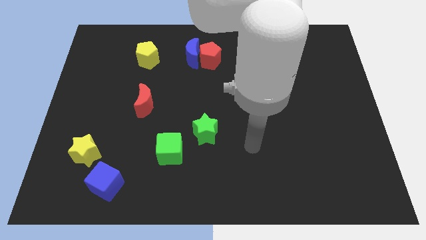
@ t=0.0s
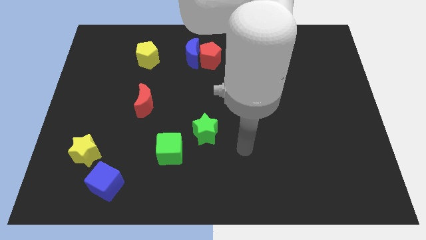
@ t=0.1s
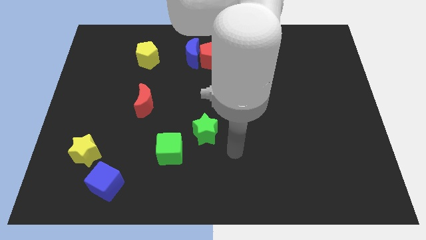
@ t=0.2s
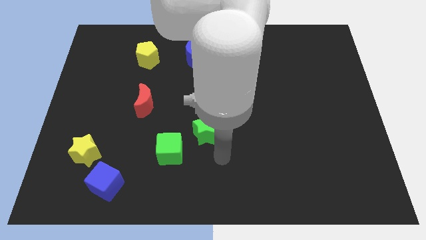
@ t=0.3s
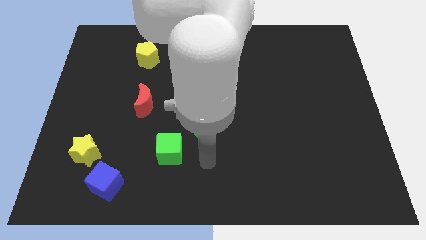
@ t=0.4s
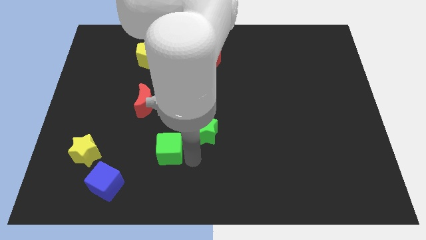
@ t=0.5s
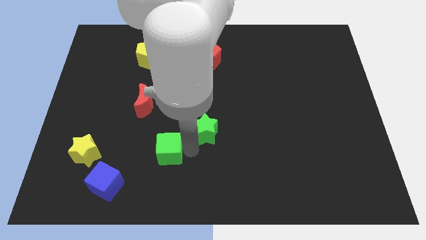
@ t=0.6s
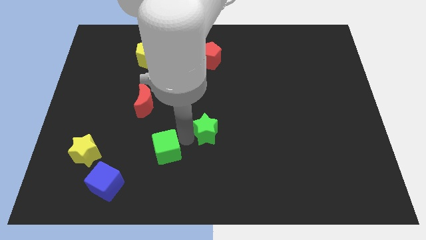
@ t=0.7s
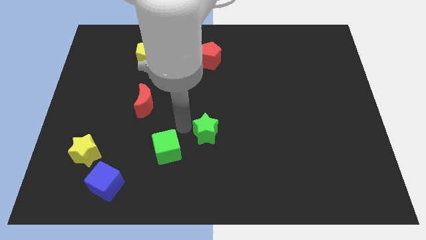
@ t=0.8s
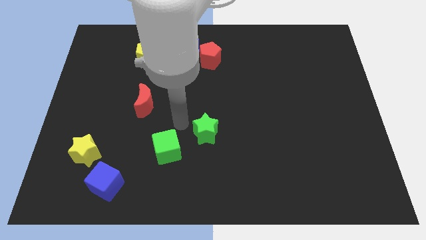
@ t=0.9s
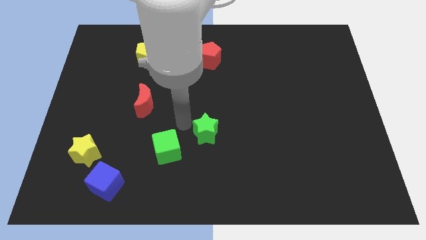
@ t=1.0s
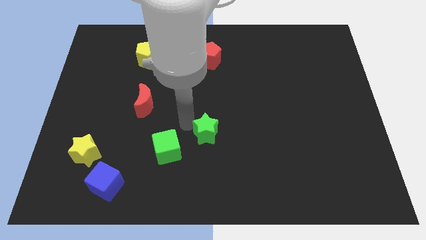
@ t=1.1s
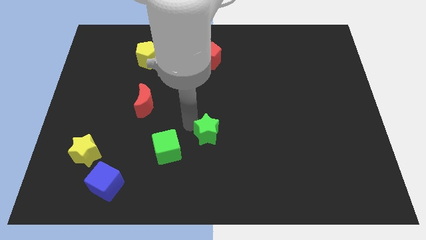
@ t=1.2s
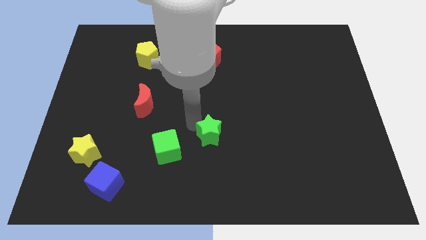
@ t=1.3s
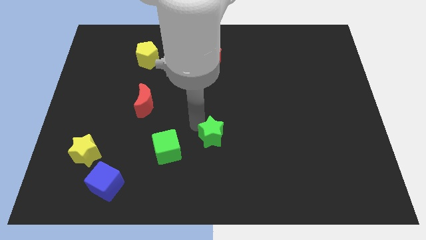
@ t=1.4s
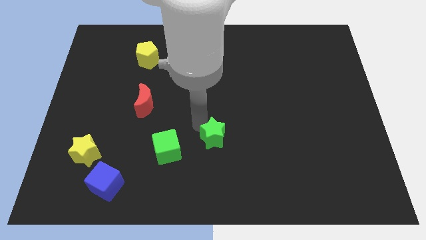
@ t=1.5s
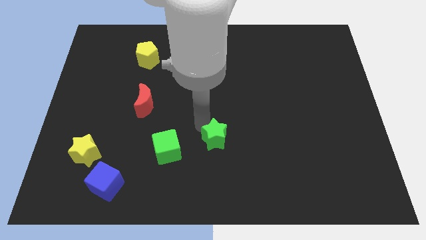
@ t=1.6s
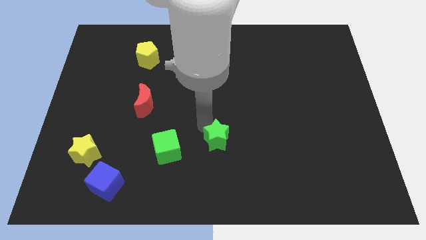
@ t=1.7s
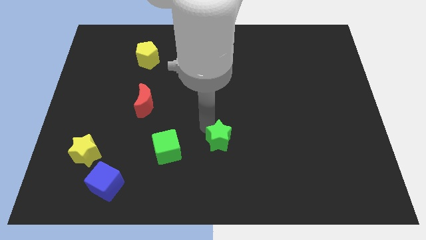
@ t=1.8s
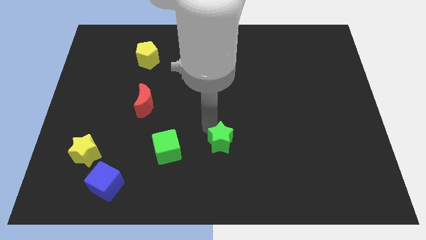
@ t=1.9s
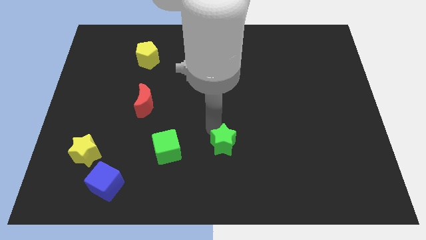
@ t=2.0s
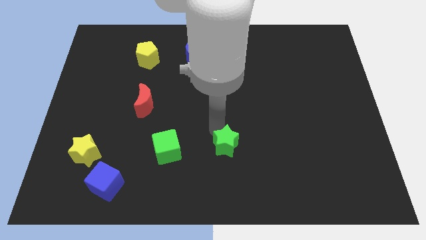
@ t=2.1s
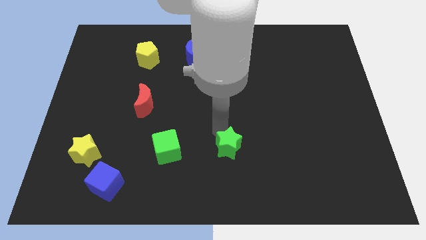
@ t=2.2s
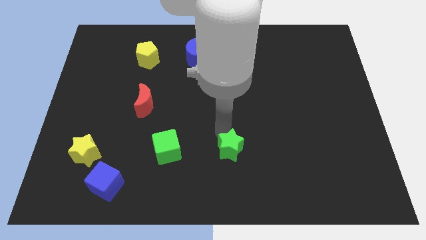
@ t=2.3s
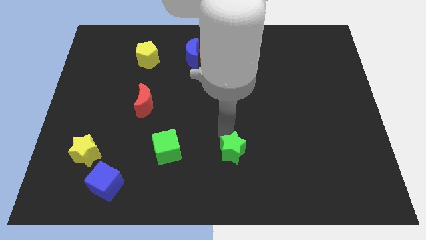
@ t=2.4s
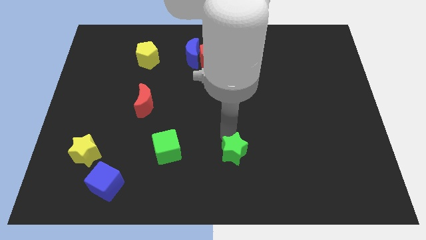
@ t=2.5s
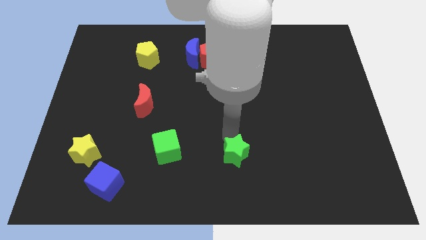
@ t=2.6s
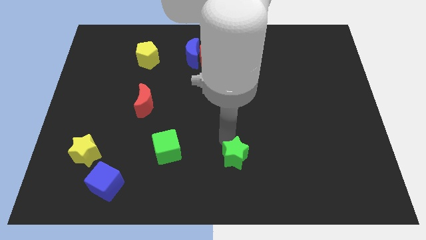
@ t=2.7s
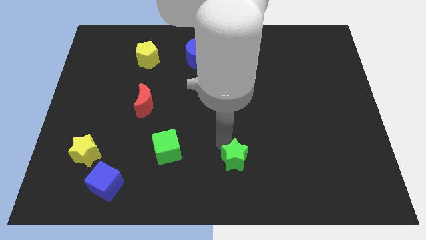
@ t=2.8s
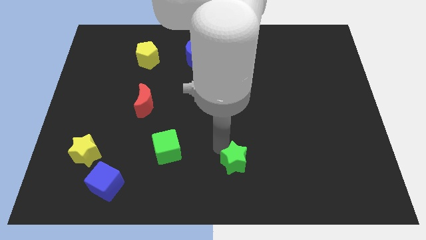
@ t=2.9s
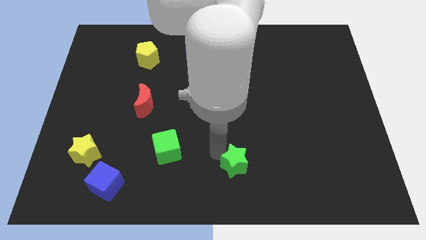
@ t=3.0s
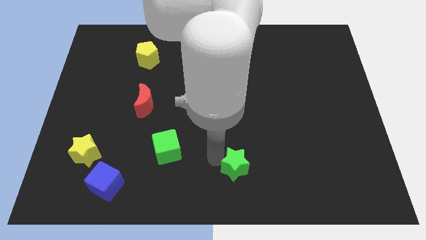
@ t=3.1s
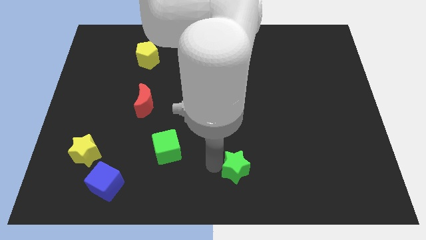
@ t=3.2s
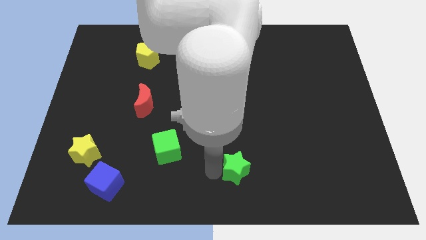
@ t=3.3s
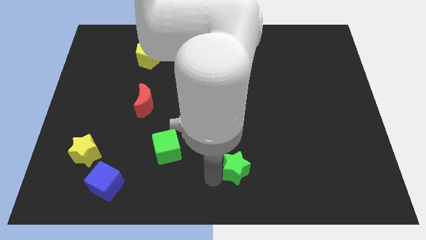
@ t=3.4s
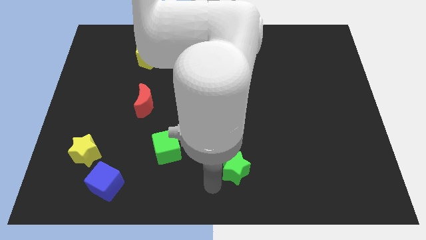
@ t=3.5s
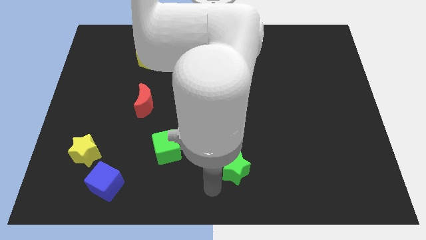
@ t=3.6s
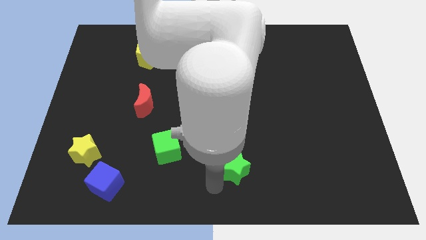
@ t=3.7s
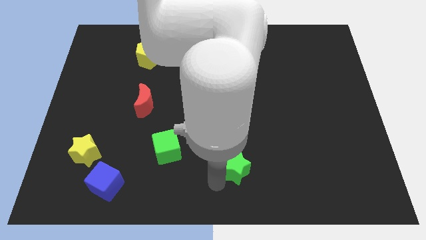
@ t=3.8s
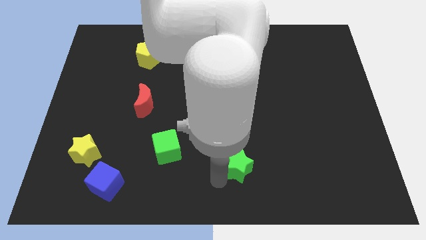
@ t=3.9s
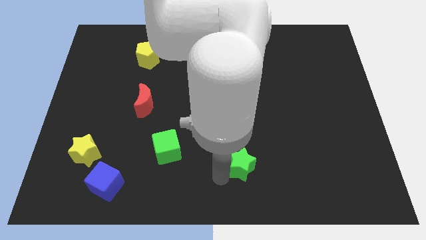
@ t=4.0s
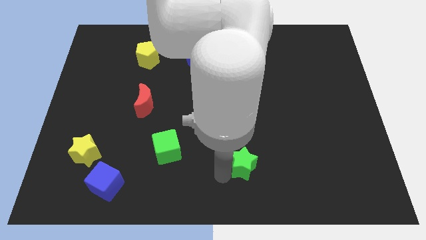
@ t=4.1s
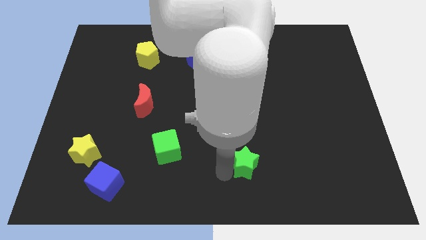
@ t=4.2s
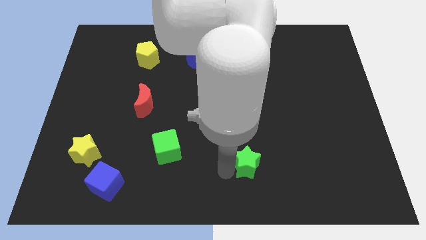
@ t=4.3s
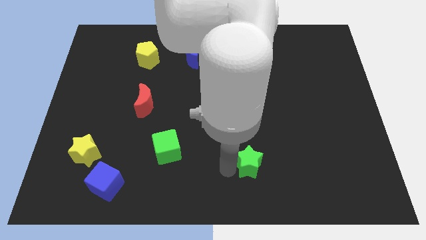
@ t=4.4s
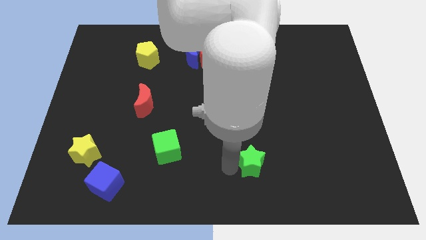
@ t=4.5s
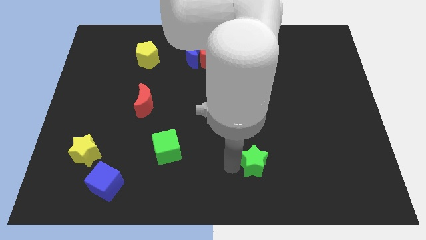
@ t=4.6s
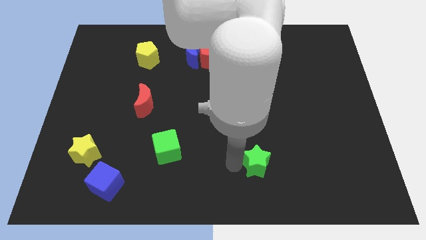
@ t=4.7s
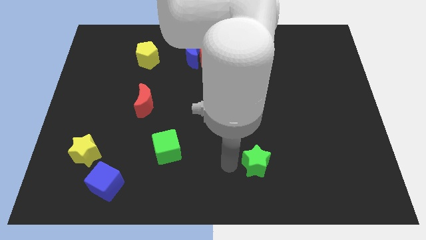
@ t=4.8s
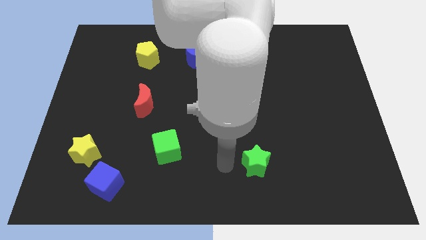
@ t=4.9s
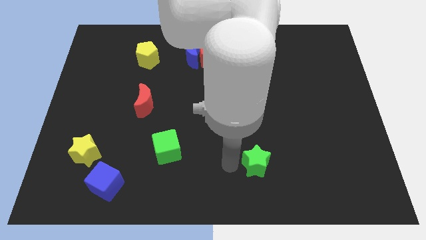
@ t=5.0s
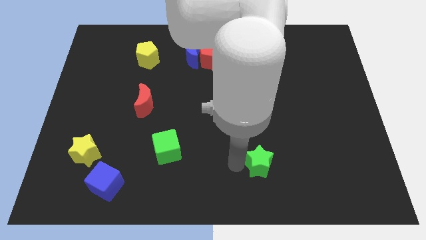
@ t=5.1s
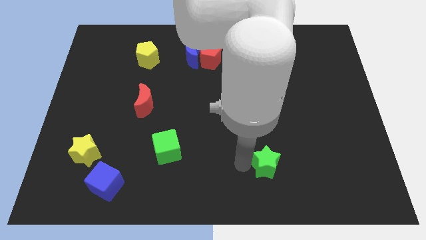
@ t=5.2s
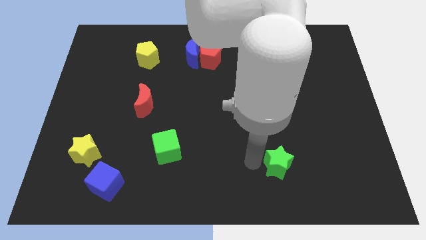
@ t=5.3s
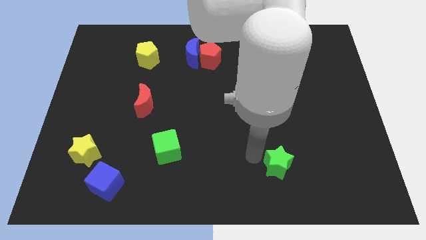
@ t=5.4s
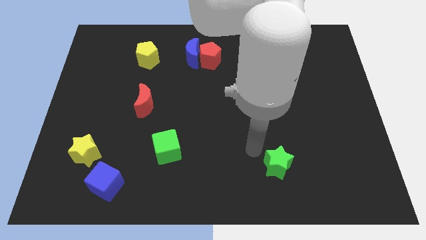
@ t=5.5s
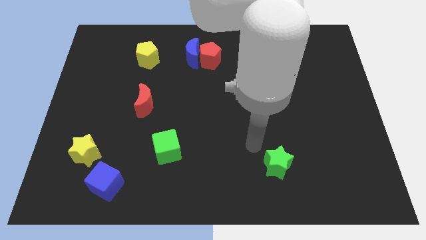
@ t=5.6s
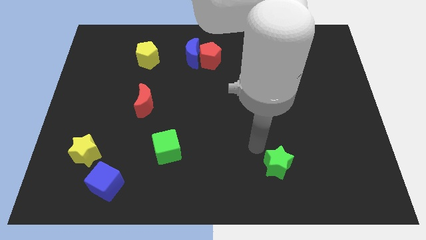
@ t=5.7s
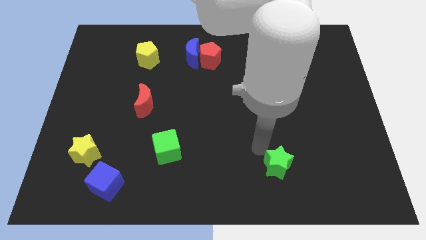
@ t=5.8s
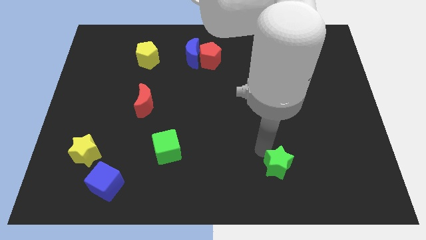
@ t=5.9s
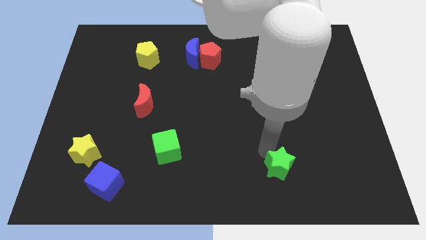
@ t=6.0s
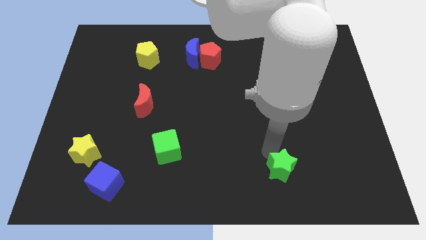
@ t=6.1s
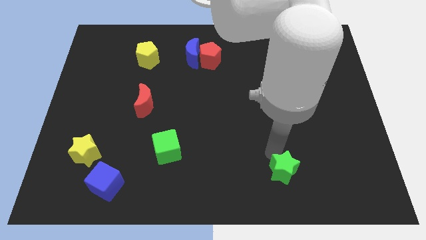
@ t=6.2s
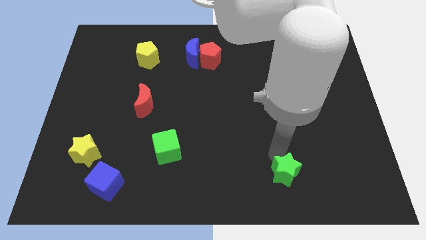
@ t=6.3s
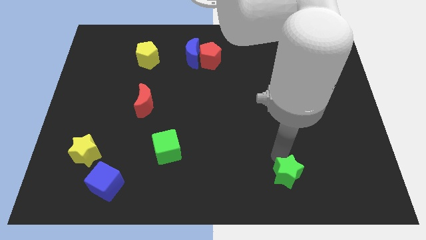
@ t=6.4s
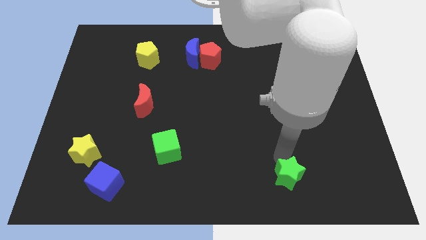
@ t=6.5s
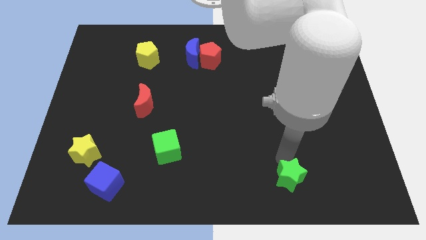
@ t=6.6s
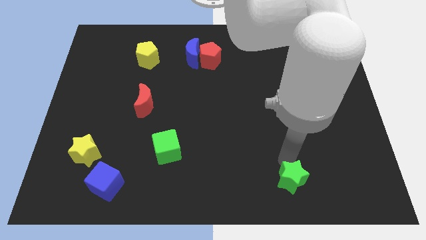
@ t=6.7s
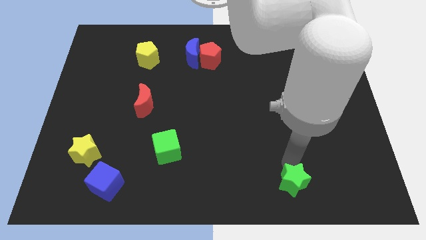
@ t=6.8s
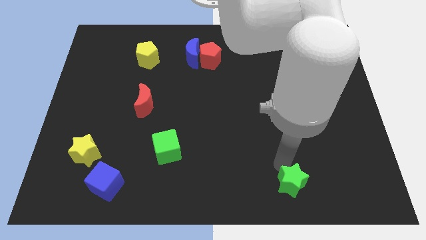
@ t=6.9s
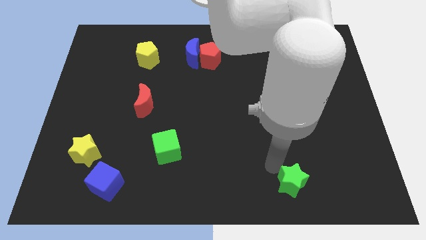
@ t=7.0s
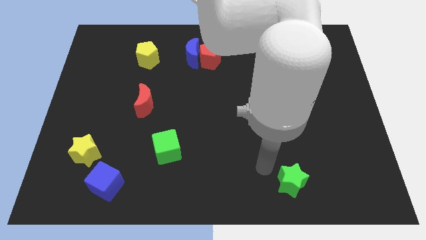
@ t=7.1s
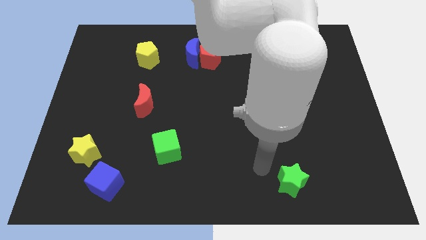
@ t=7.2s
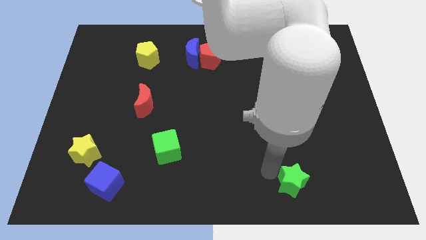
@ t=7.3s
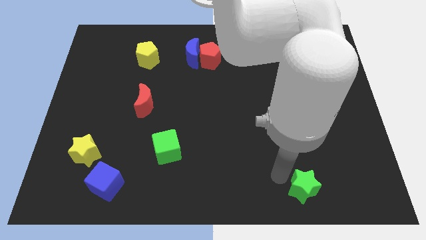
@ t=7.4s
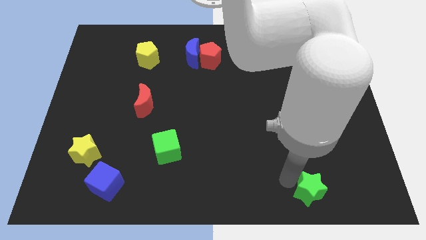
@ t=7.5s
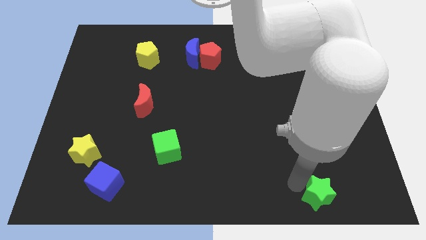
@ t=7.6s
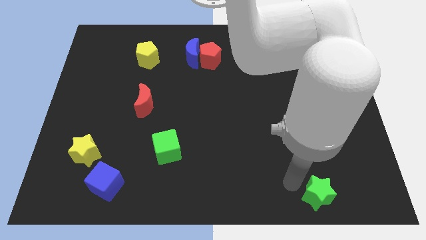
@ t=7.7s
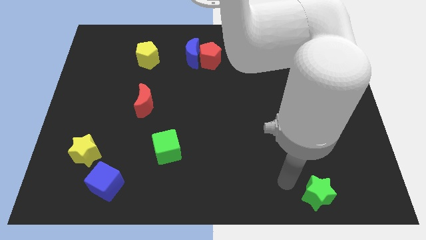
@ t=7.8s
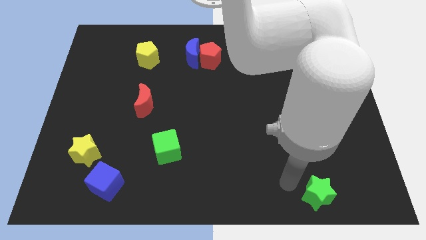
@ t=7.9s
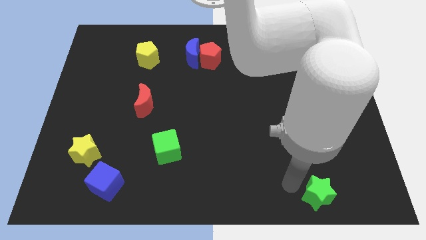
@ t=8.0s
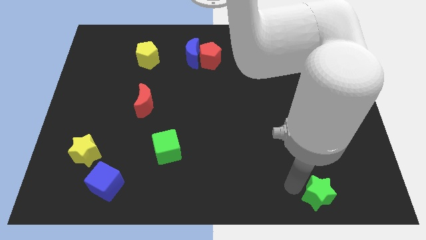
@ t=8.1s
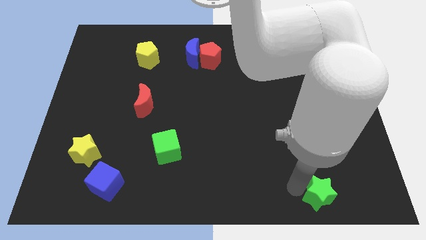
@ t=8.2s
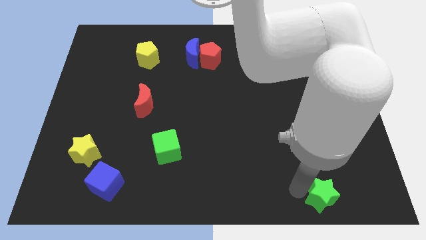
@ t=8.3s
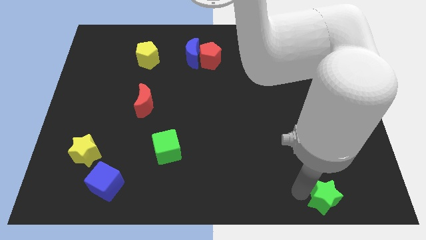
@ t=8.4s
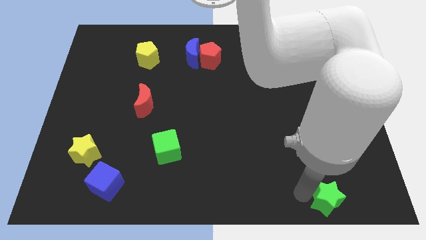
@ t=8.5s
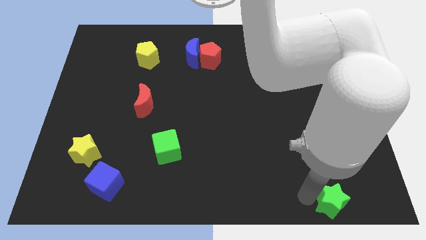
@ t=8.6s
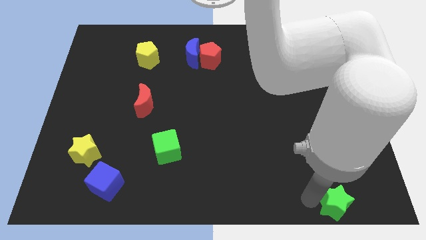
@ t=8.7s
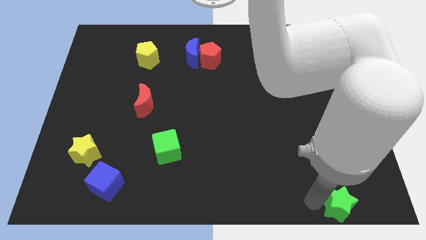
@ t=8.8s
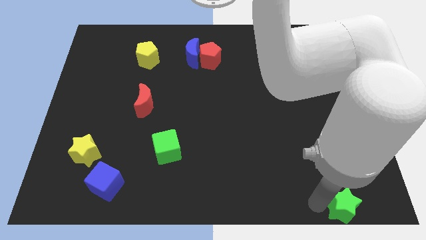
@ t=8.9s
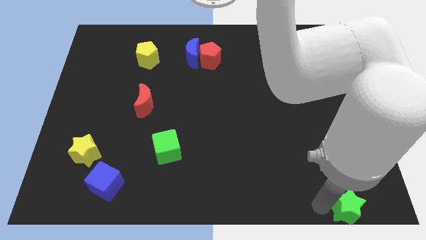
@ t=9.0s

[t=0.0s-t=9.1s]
move the green star to the lower right corner
